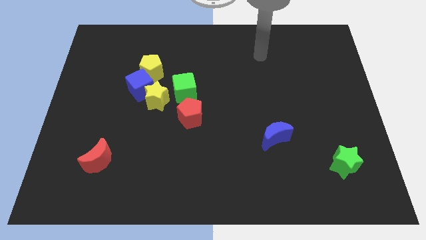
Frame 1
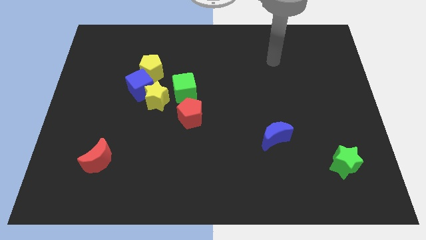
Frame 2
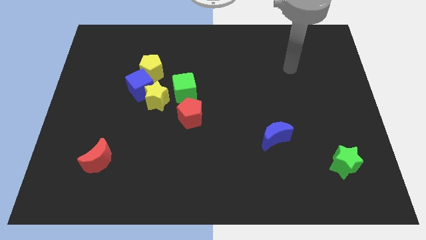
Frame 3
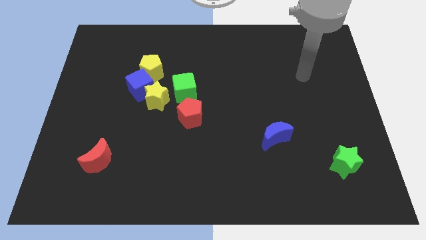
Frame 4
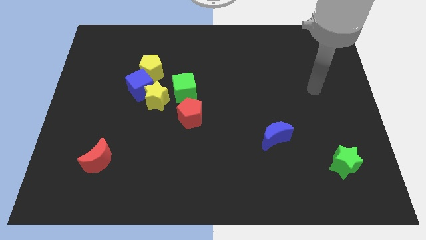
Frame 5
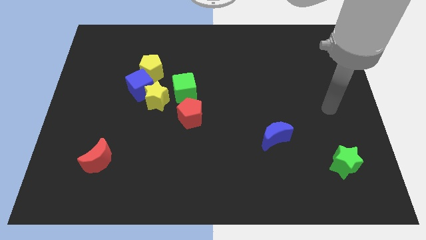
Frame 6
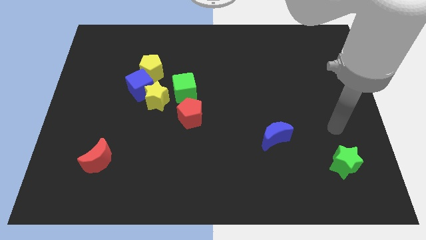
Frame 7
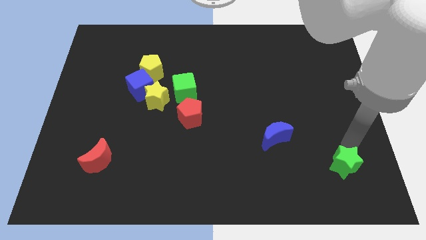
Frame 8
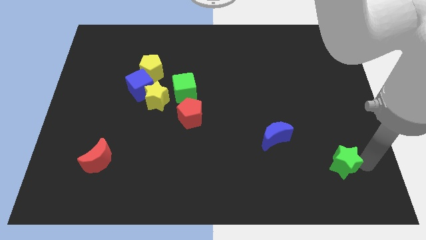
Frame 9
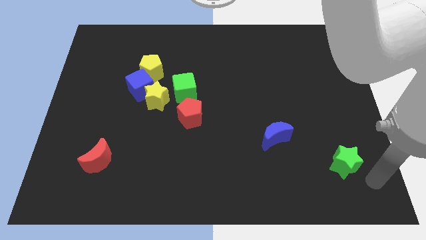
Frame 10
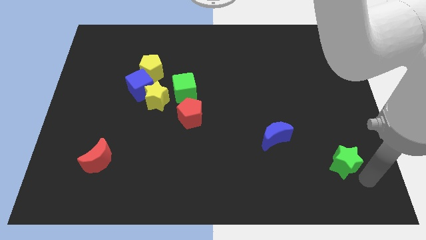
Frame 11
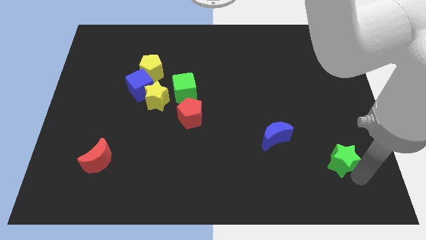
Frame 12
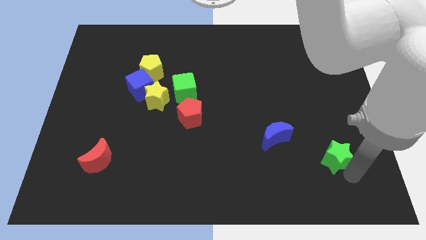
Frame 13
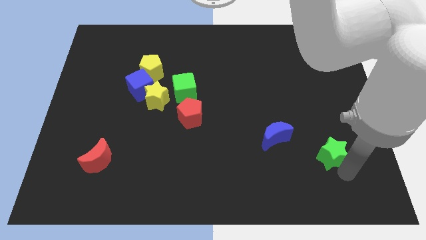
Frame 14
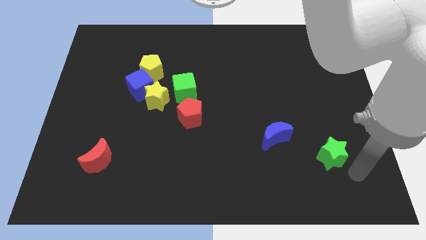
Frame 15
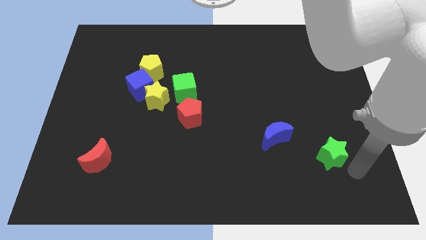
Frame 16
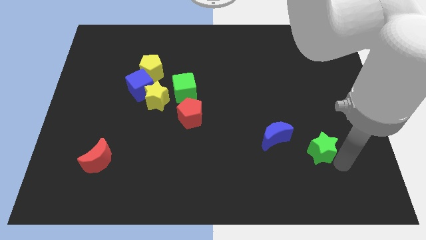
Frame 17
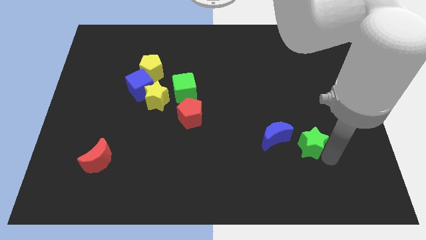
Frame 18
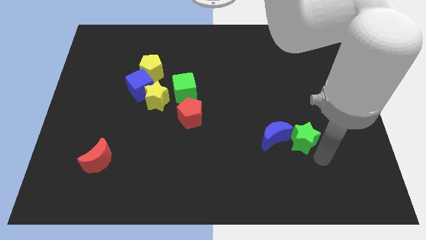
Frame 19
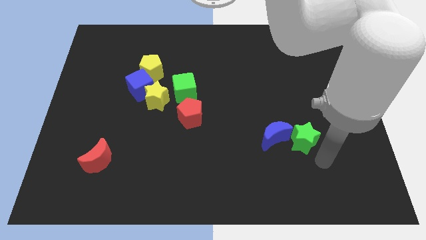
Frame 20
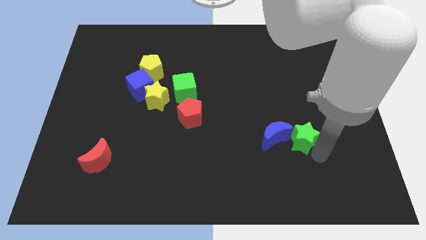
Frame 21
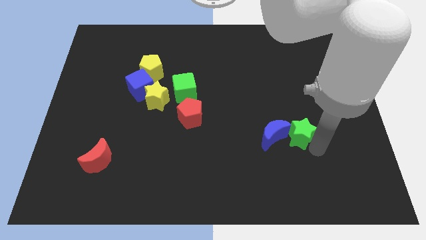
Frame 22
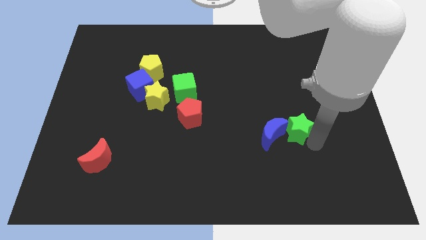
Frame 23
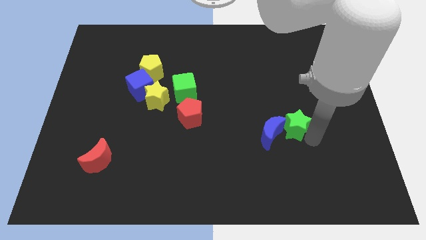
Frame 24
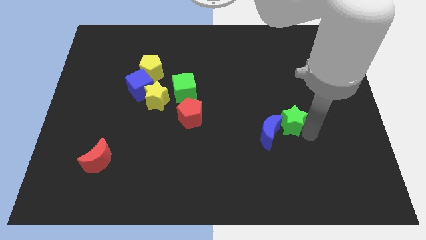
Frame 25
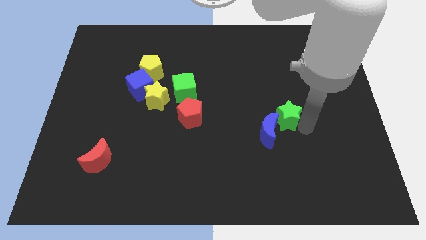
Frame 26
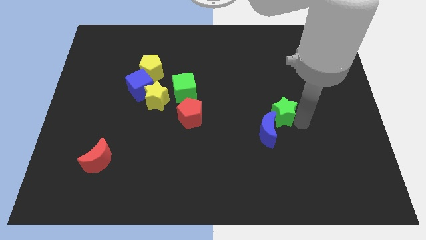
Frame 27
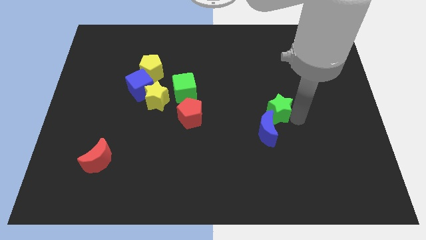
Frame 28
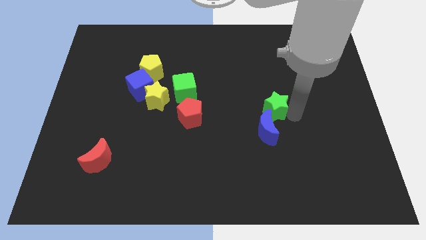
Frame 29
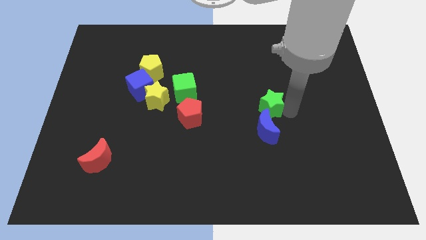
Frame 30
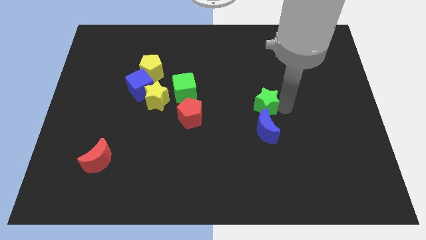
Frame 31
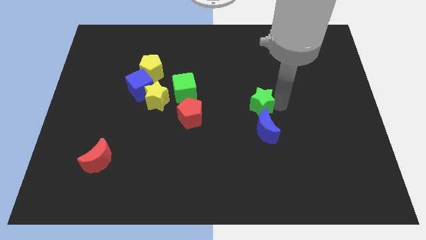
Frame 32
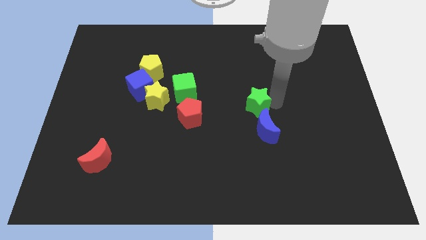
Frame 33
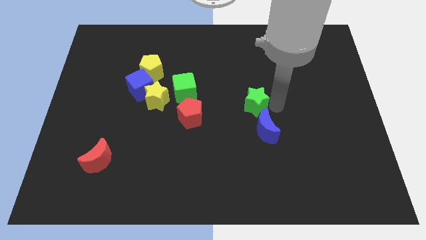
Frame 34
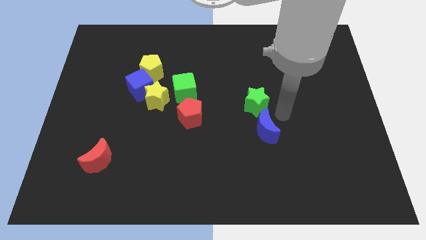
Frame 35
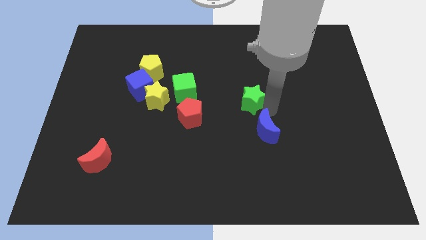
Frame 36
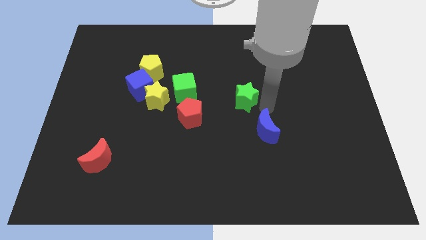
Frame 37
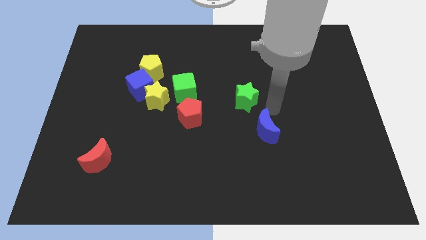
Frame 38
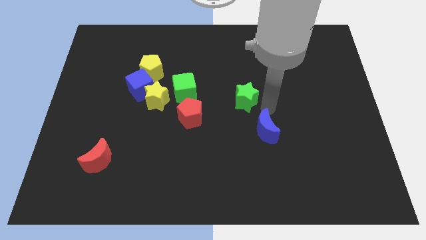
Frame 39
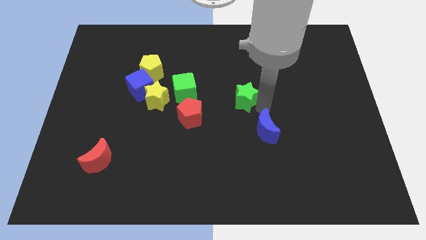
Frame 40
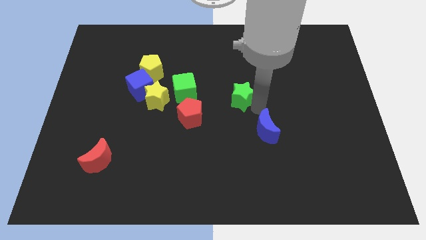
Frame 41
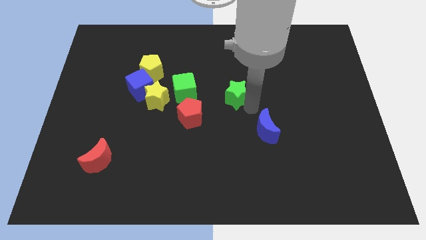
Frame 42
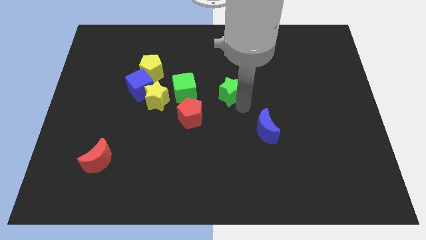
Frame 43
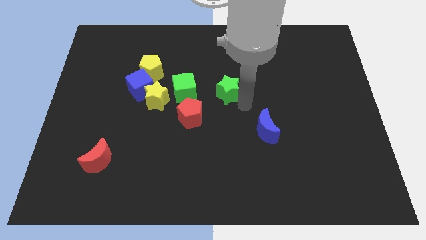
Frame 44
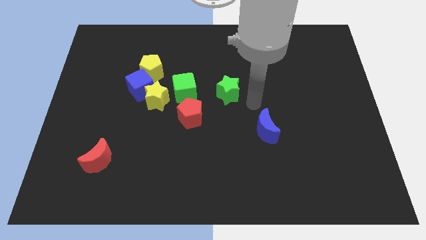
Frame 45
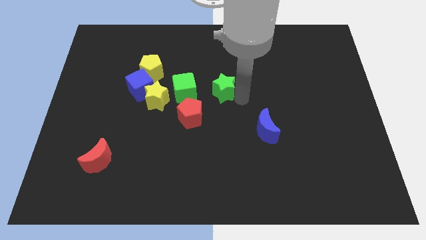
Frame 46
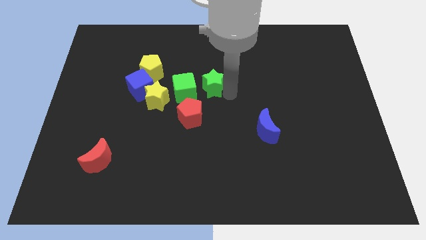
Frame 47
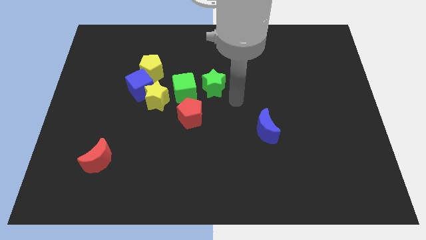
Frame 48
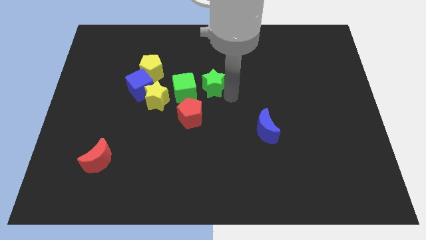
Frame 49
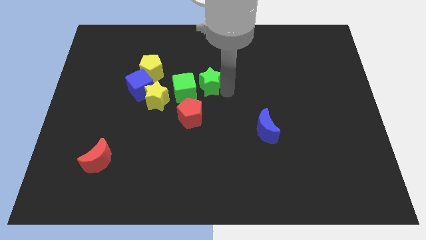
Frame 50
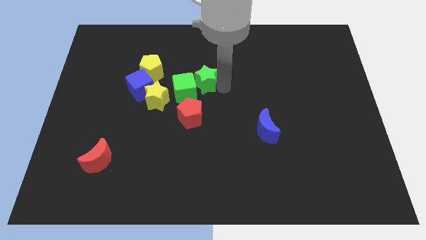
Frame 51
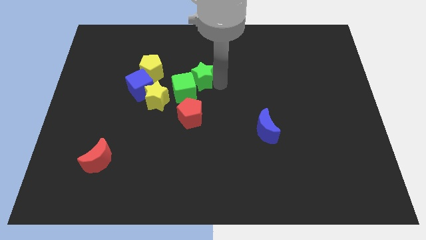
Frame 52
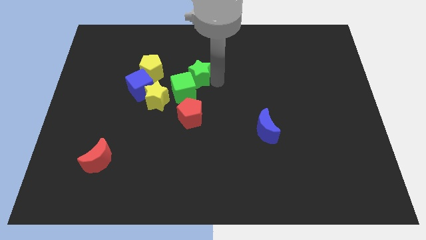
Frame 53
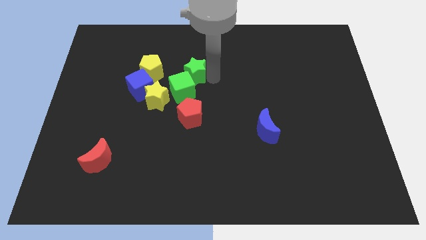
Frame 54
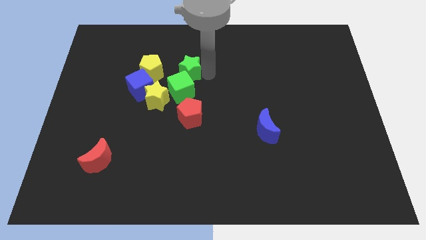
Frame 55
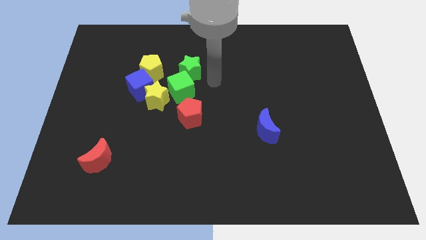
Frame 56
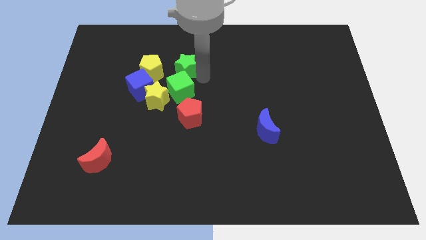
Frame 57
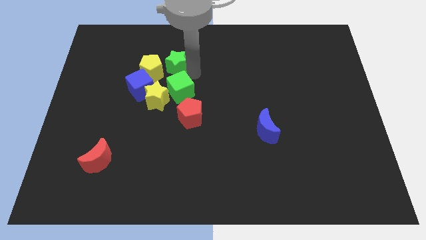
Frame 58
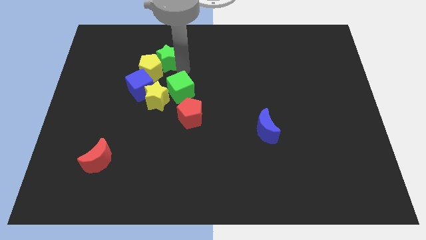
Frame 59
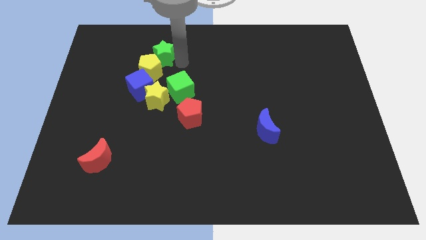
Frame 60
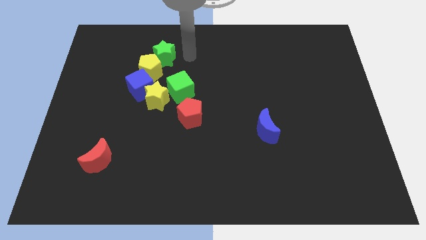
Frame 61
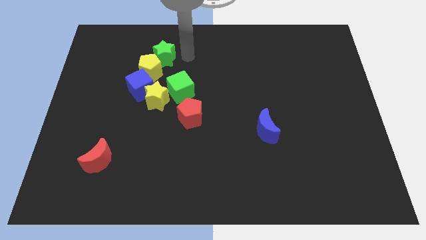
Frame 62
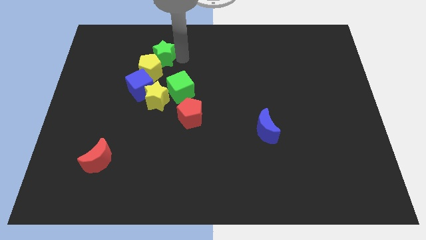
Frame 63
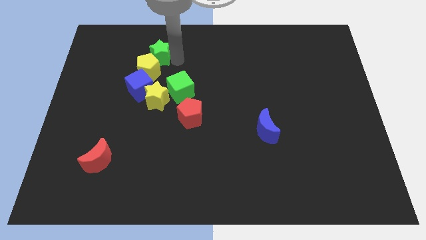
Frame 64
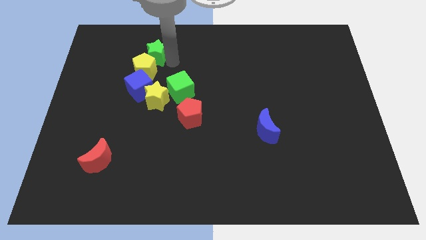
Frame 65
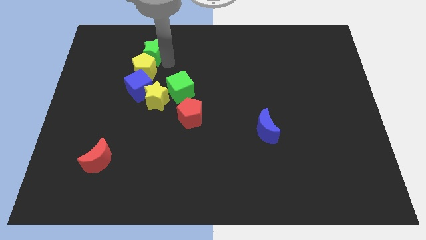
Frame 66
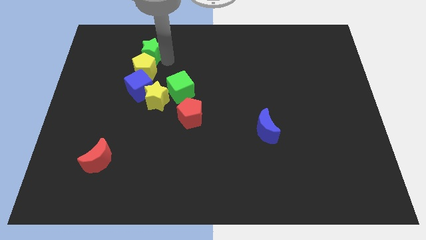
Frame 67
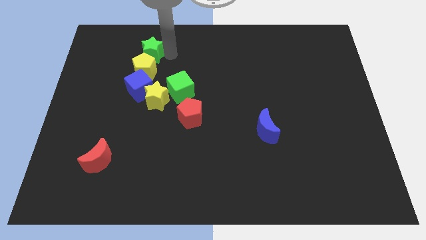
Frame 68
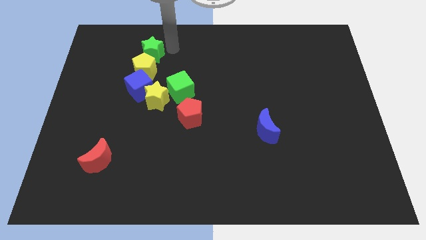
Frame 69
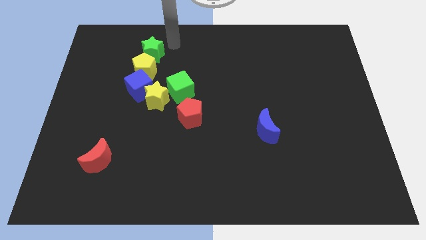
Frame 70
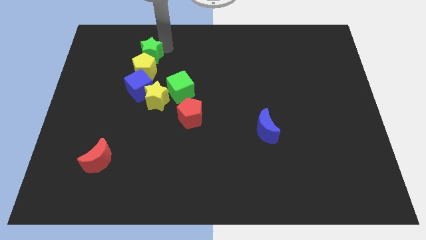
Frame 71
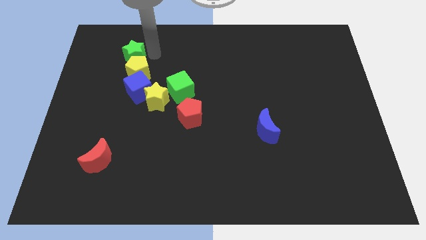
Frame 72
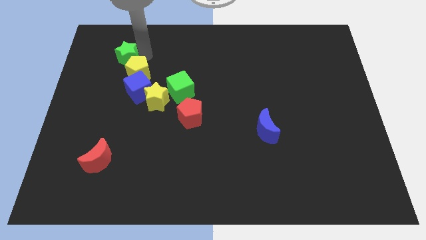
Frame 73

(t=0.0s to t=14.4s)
slide the green star to the left side of the yellow pentagon
